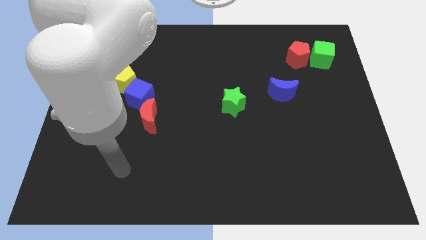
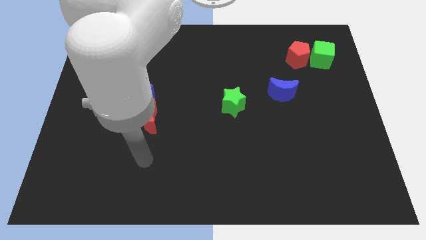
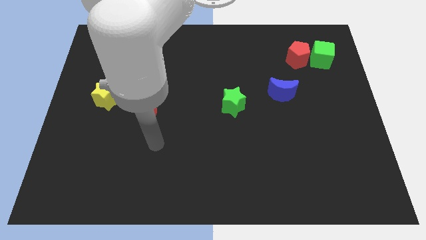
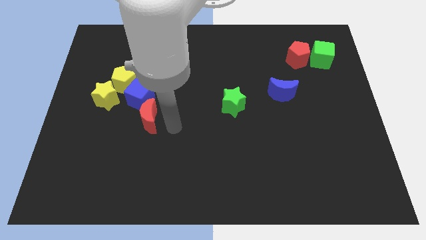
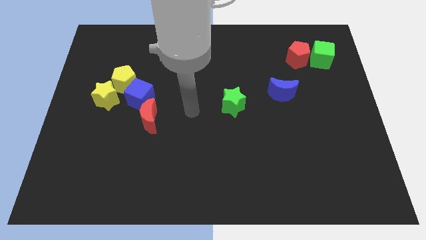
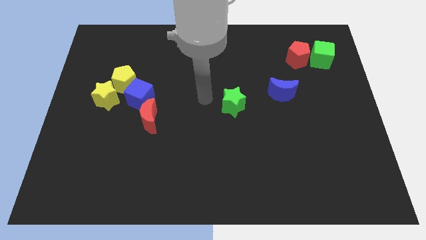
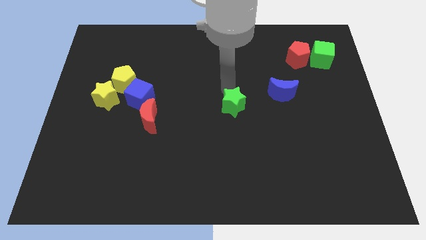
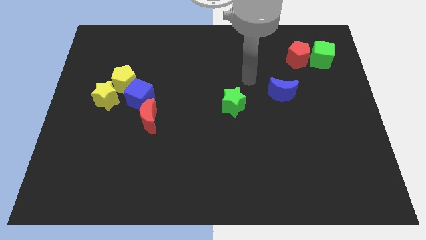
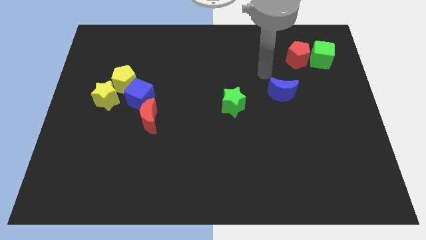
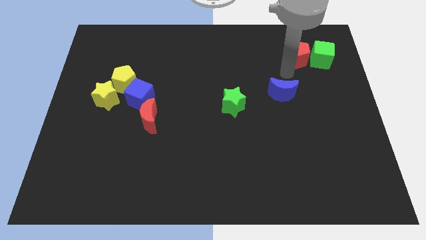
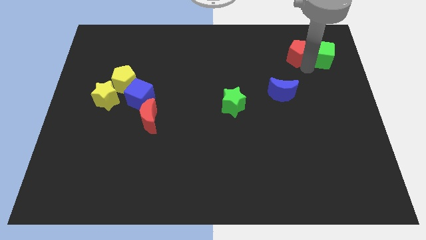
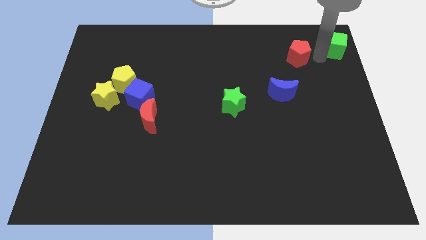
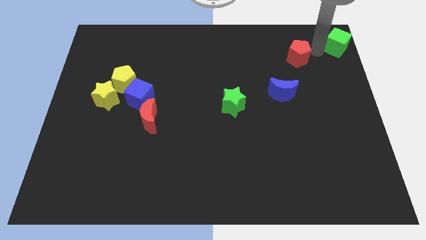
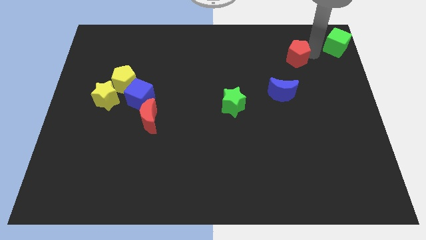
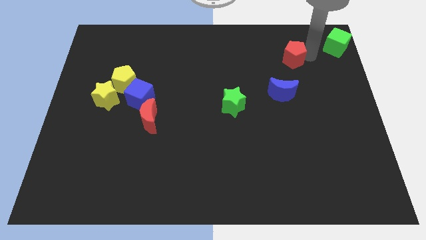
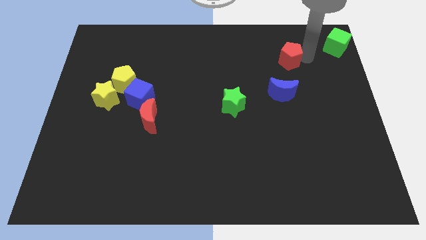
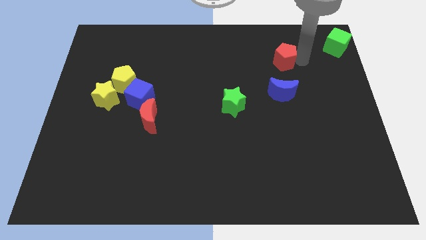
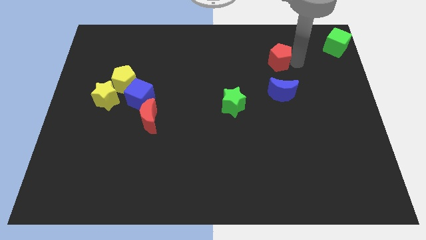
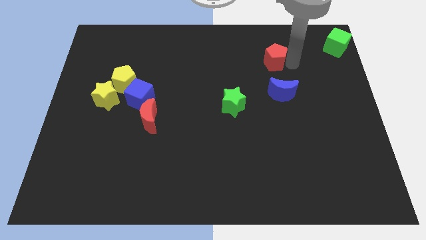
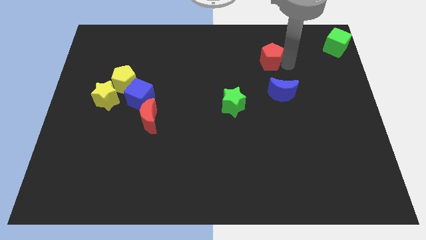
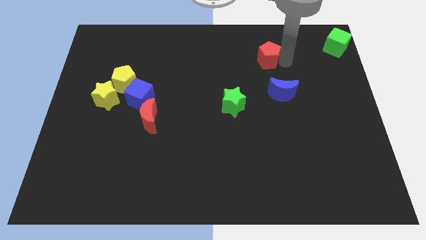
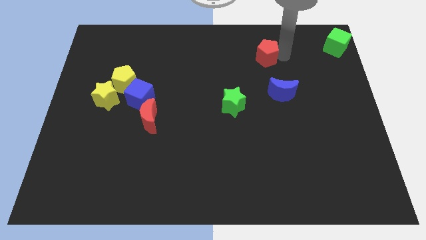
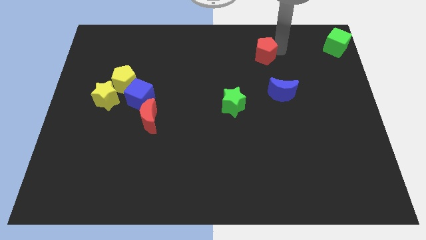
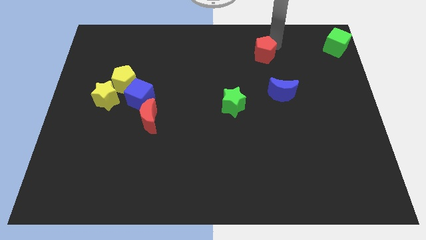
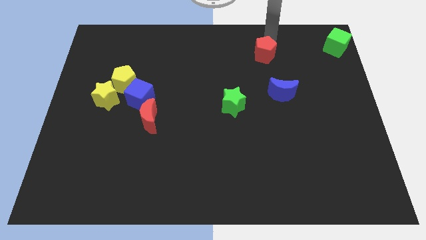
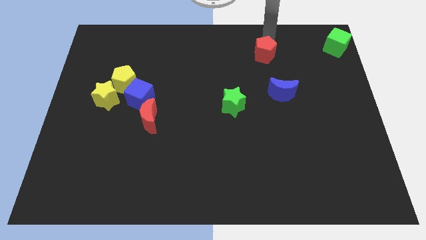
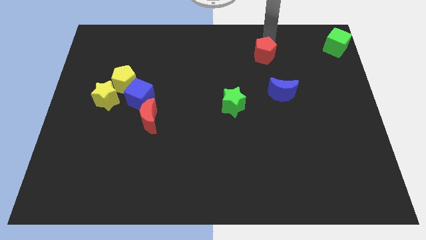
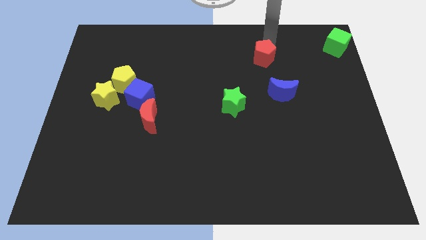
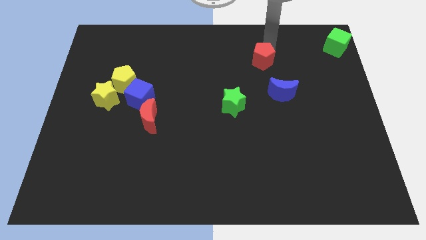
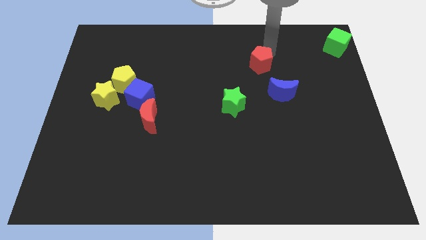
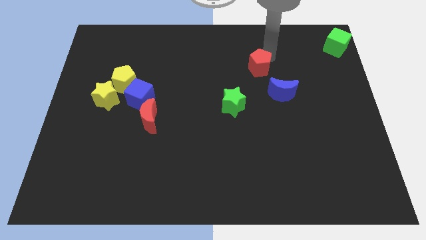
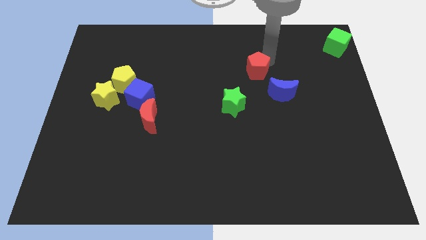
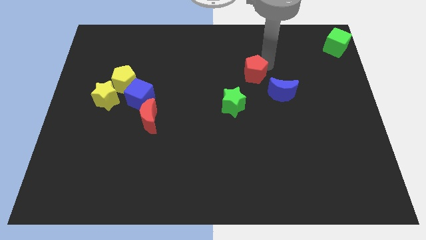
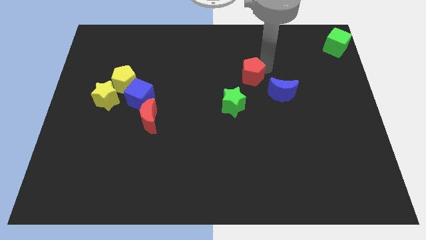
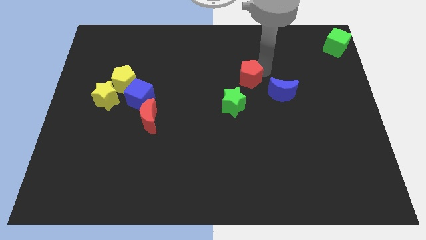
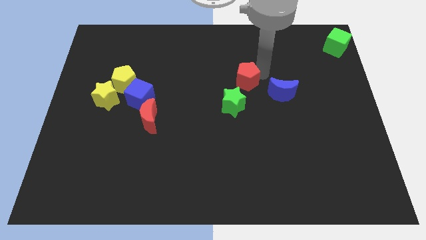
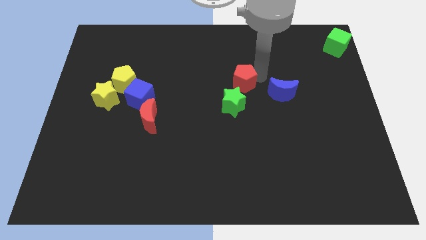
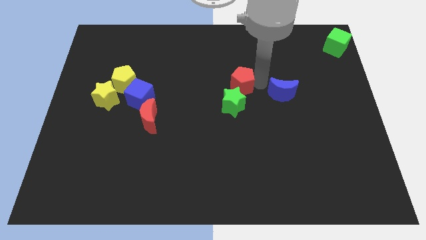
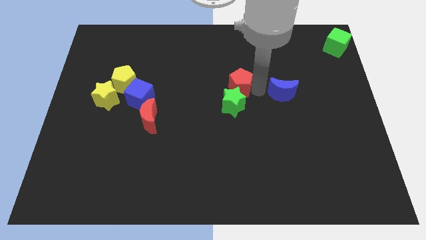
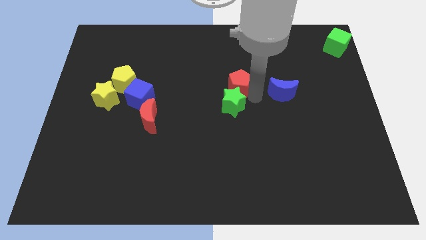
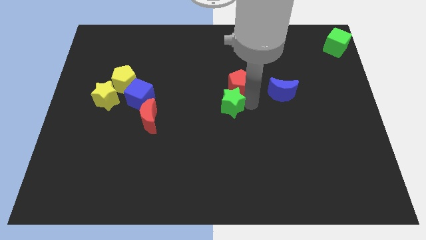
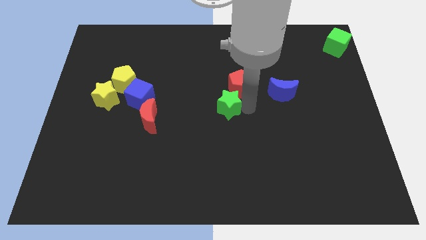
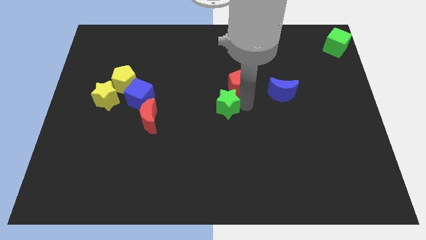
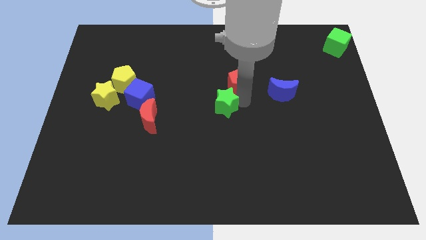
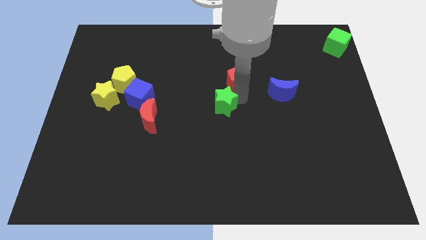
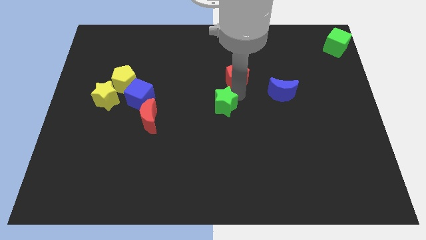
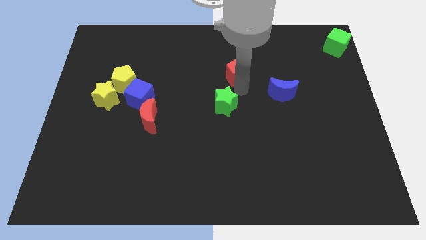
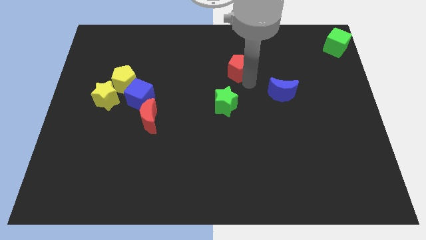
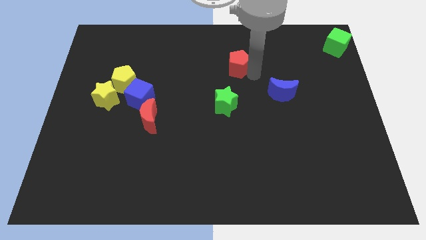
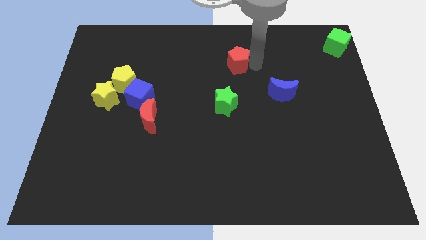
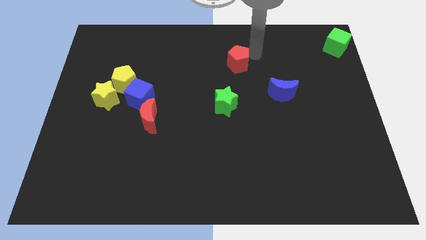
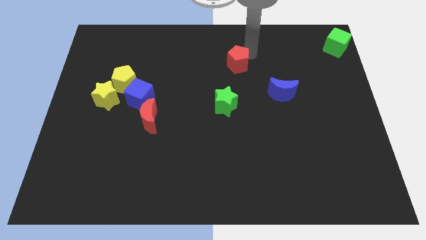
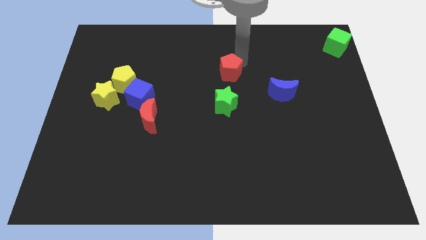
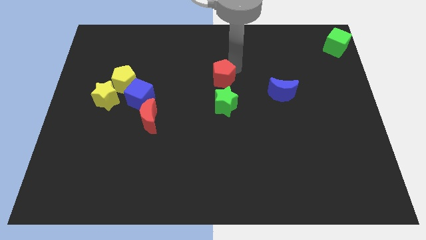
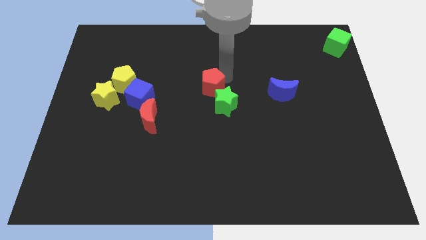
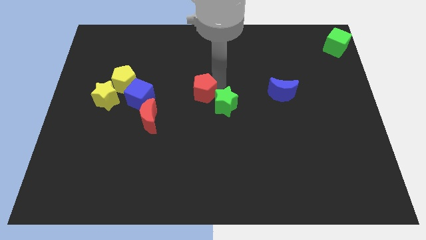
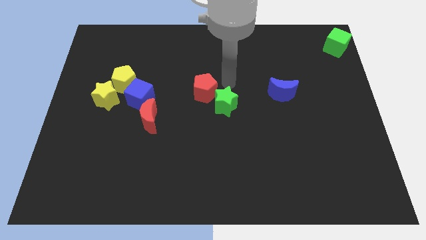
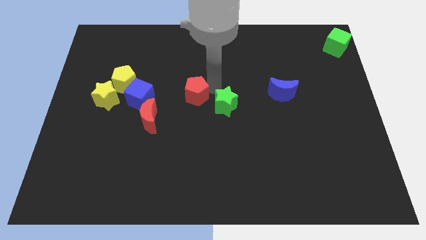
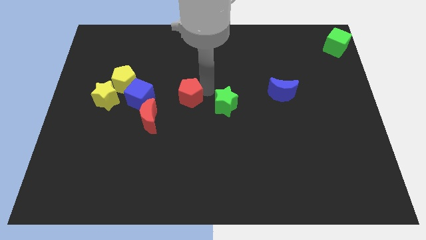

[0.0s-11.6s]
slide the red pentagon to the top right of the red moon

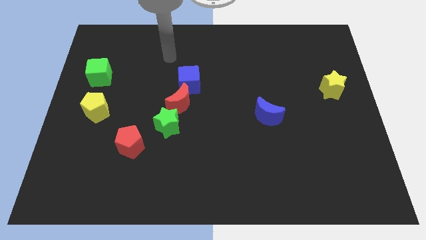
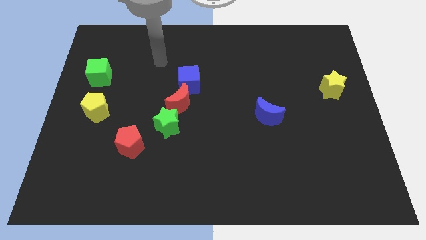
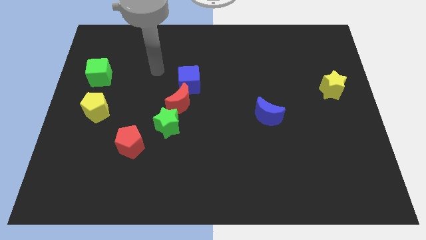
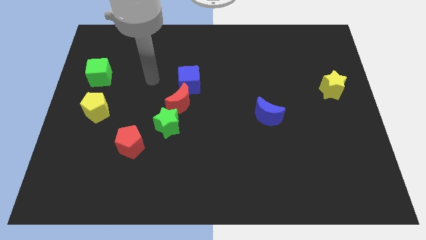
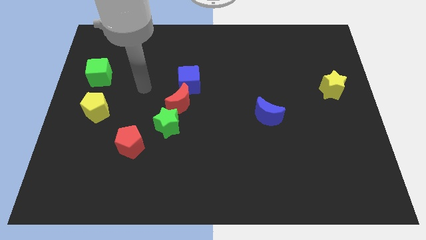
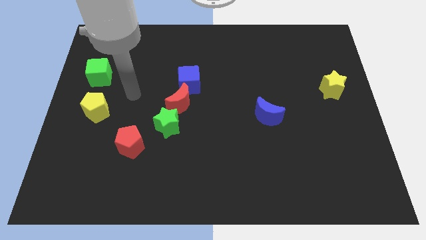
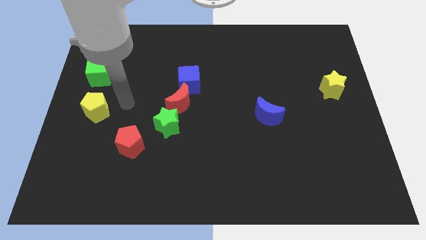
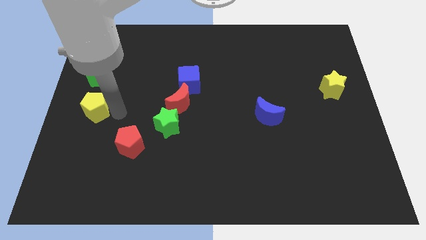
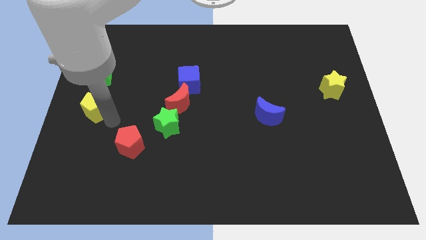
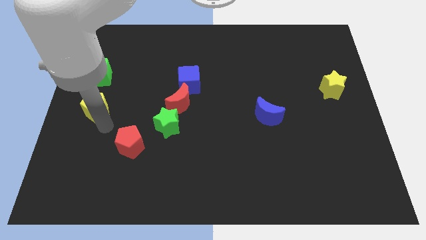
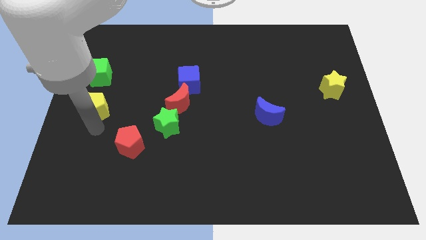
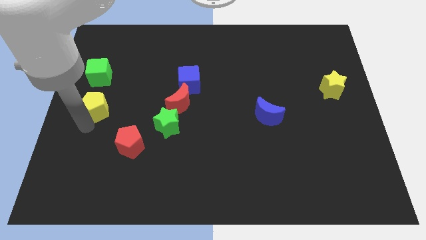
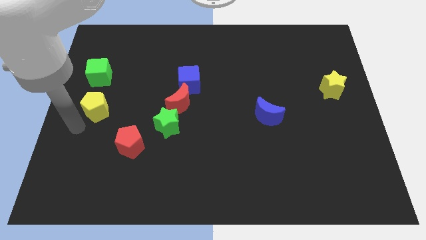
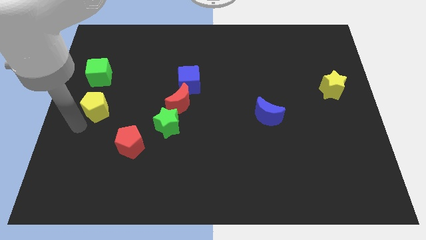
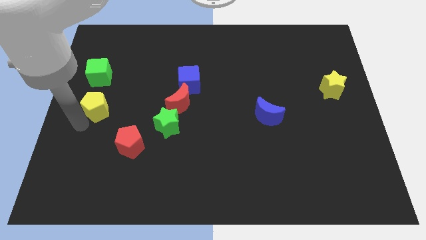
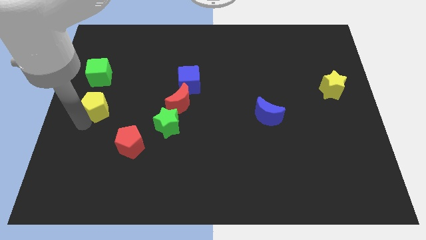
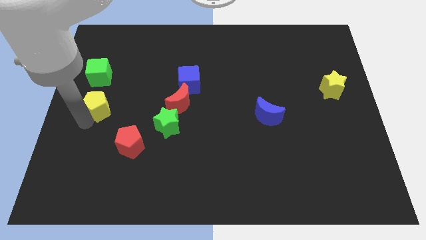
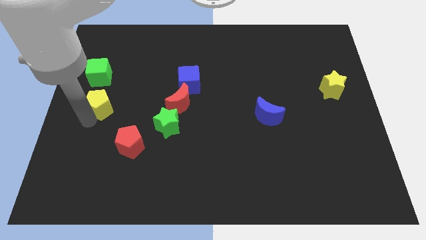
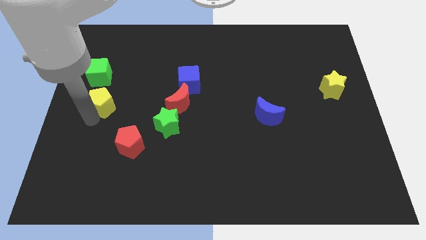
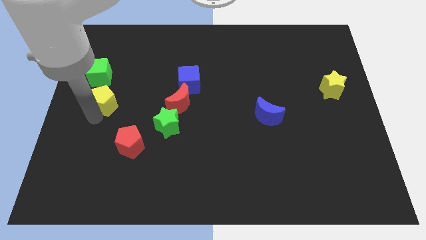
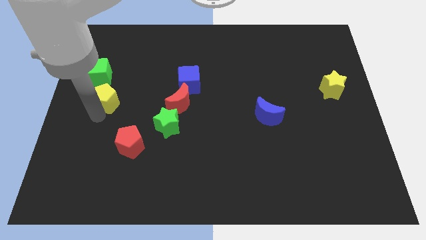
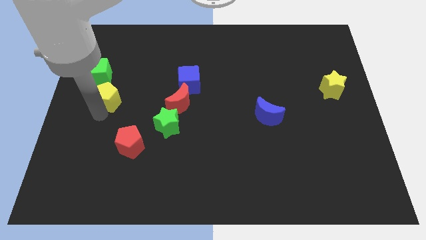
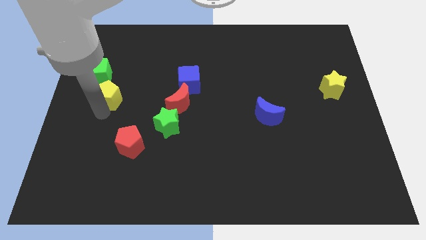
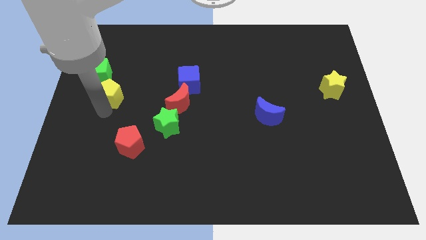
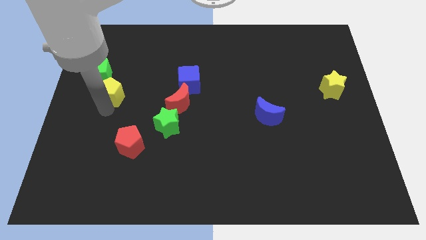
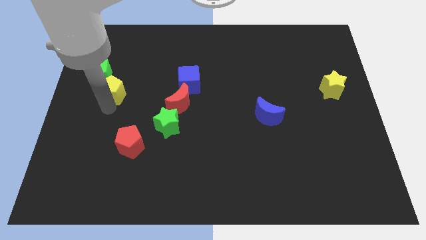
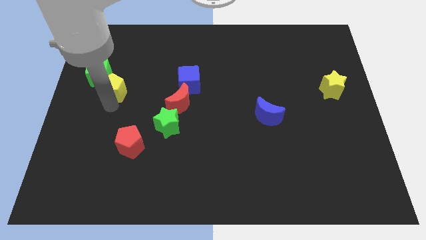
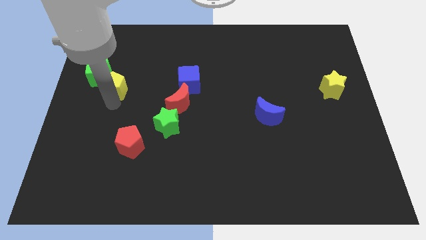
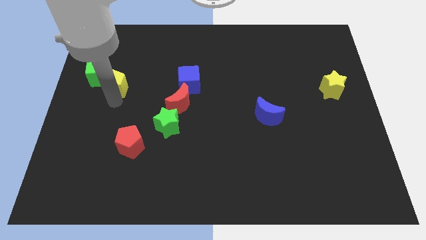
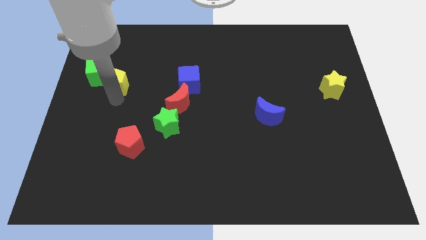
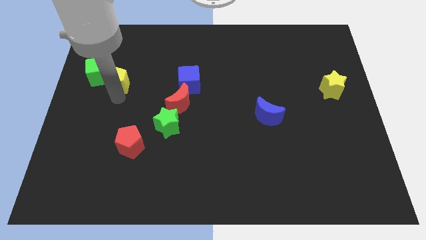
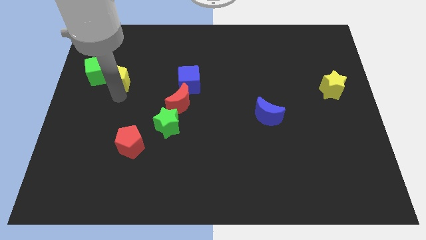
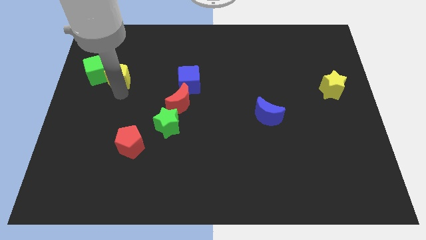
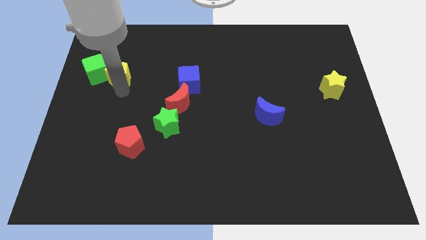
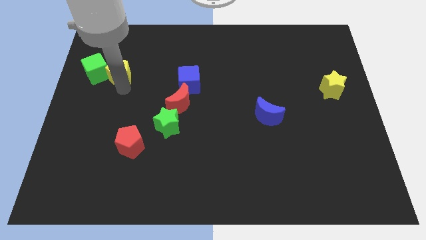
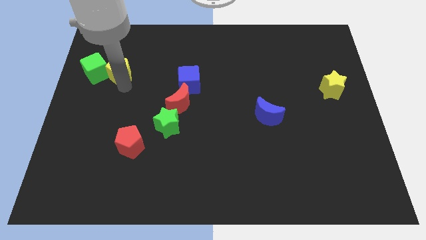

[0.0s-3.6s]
put the yellow pentagon diagonally up and to the right of the green cube
